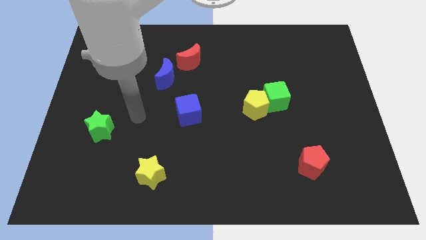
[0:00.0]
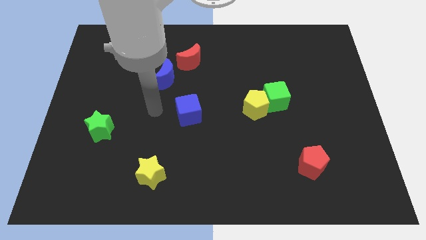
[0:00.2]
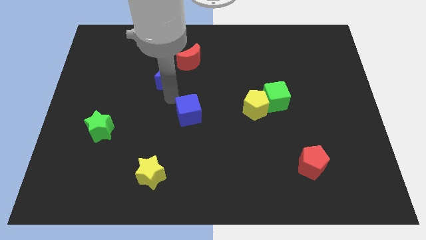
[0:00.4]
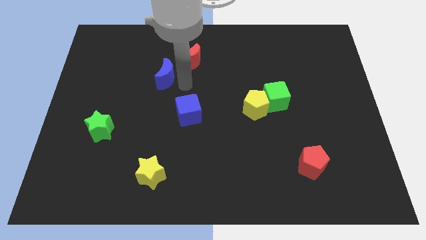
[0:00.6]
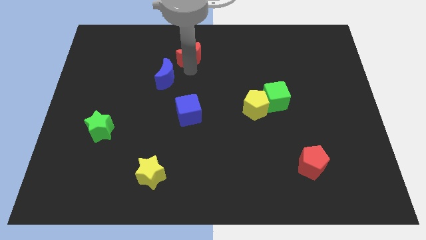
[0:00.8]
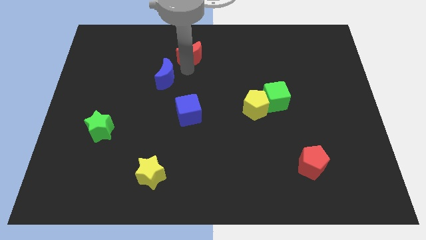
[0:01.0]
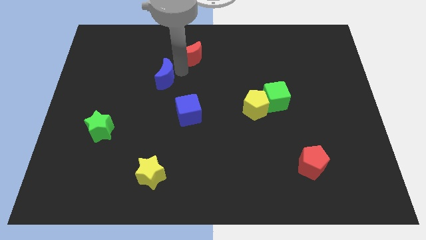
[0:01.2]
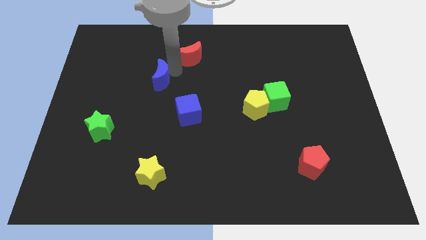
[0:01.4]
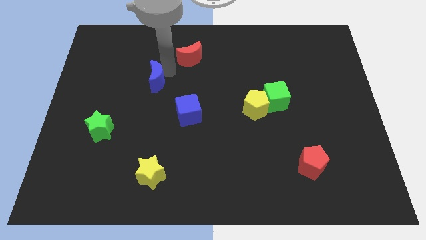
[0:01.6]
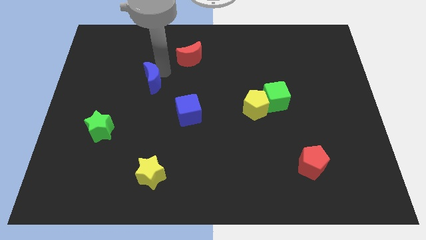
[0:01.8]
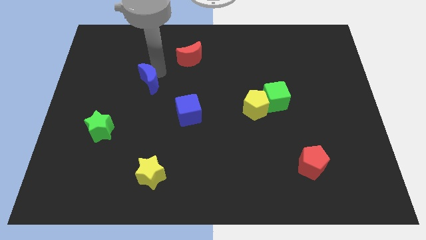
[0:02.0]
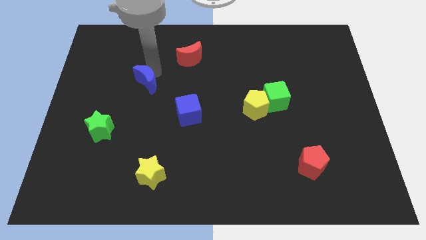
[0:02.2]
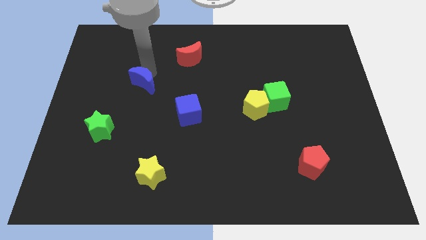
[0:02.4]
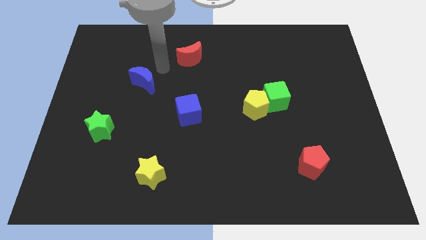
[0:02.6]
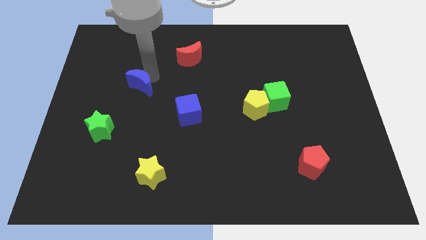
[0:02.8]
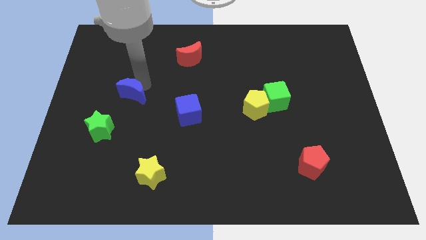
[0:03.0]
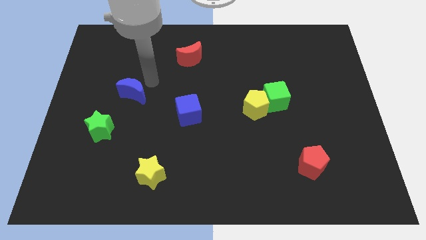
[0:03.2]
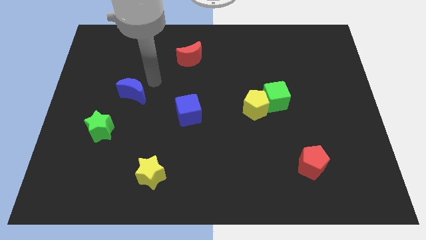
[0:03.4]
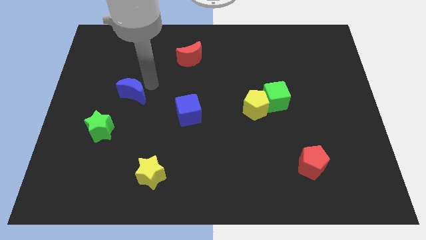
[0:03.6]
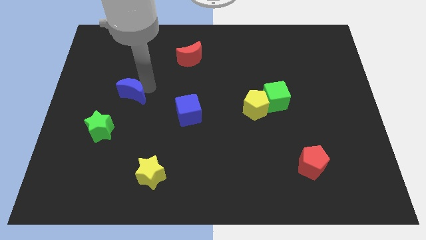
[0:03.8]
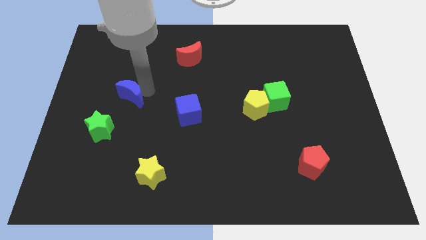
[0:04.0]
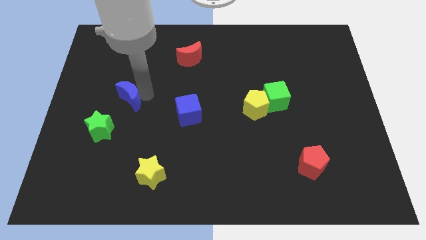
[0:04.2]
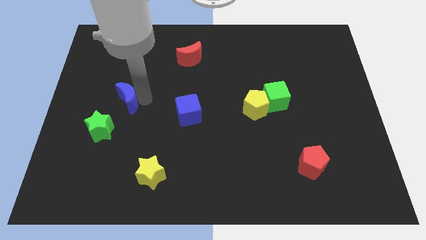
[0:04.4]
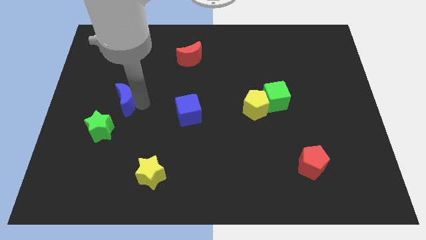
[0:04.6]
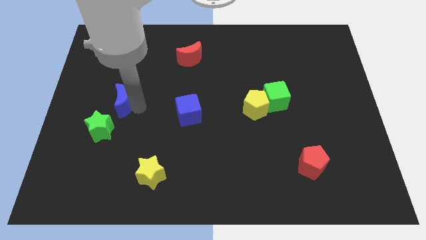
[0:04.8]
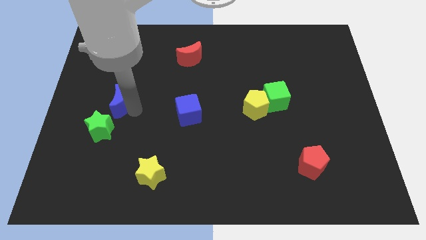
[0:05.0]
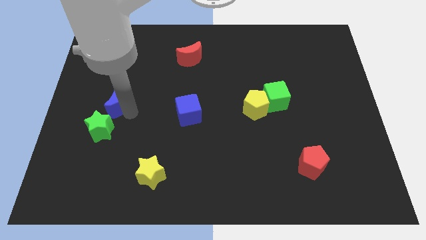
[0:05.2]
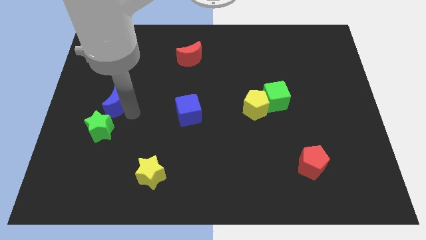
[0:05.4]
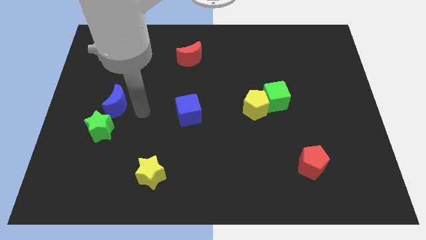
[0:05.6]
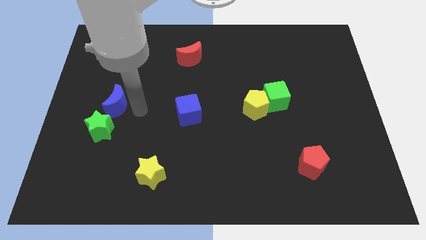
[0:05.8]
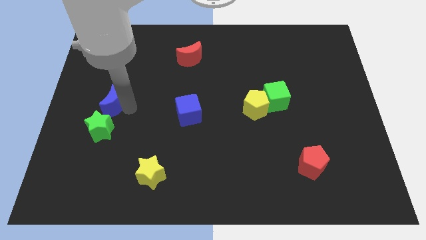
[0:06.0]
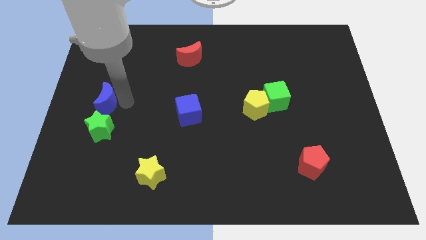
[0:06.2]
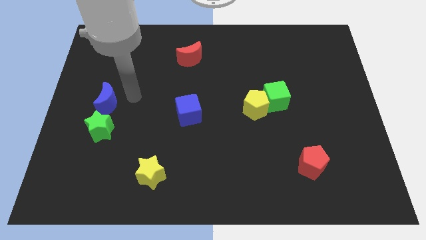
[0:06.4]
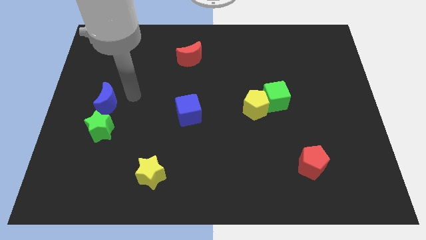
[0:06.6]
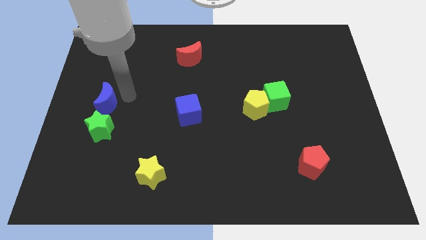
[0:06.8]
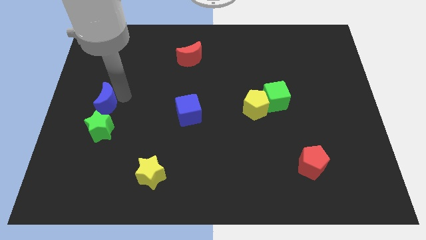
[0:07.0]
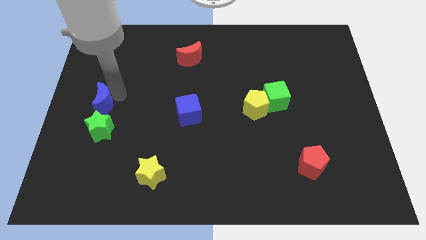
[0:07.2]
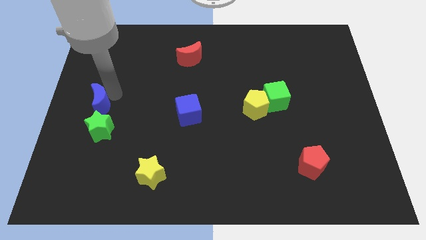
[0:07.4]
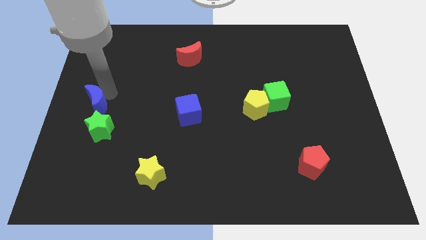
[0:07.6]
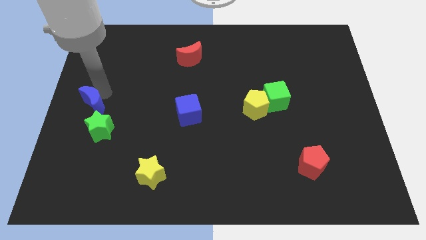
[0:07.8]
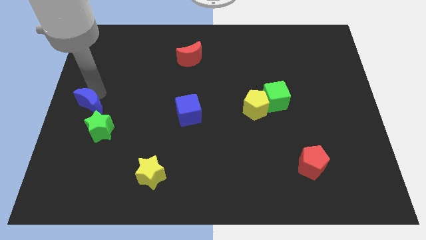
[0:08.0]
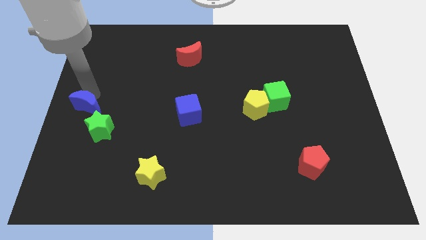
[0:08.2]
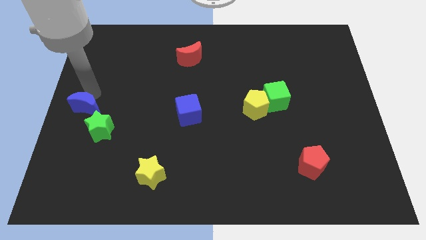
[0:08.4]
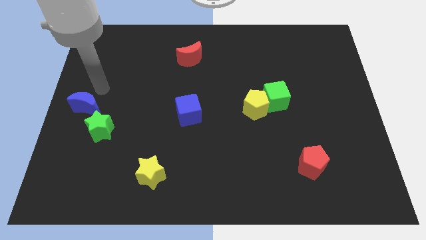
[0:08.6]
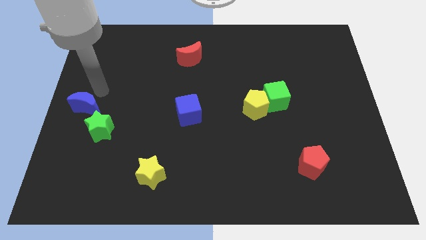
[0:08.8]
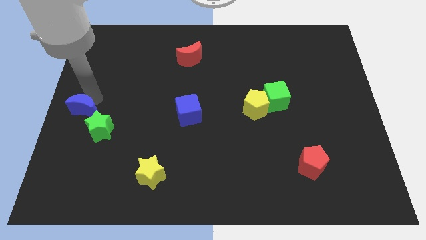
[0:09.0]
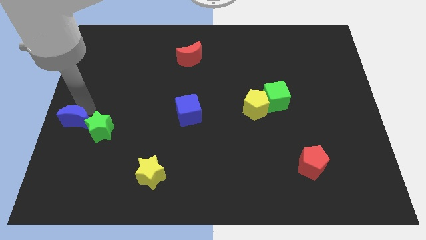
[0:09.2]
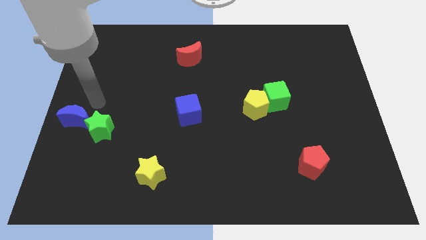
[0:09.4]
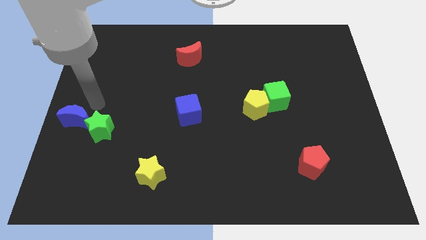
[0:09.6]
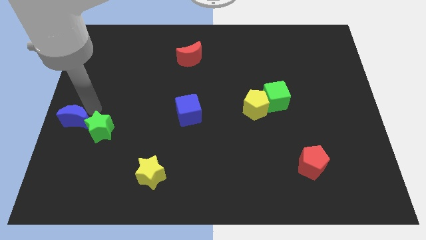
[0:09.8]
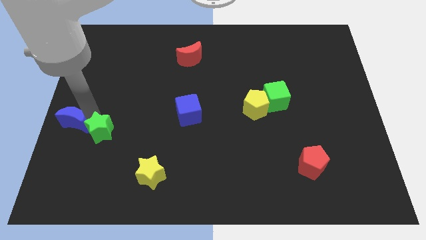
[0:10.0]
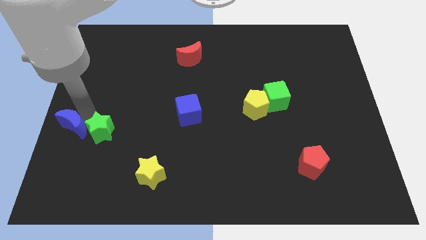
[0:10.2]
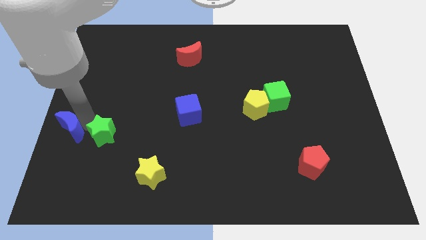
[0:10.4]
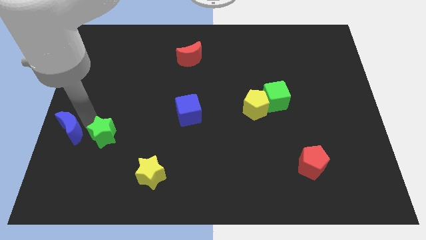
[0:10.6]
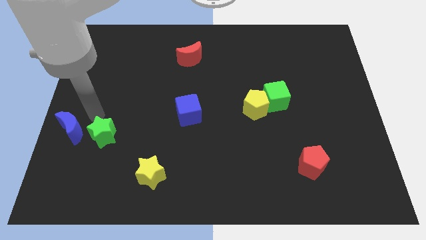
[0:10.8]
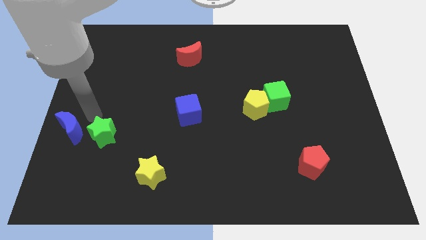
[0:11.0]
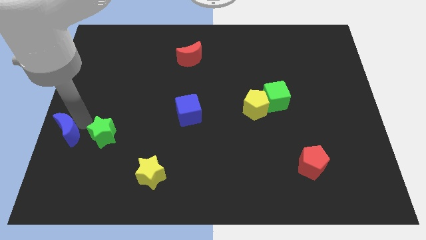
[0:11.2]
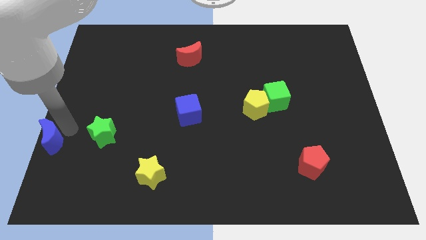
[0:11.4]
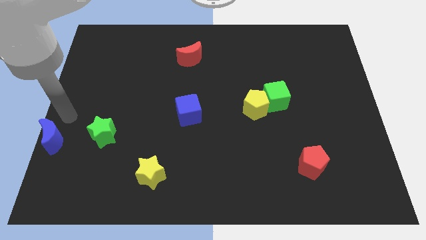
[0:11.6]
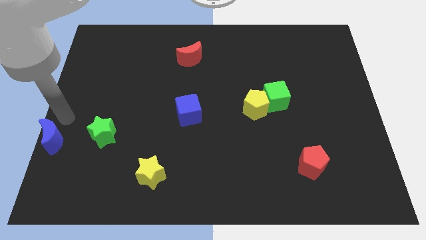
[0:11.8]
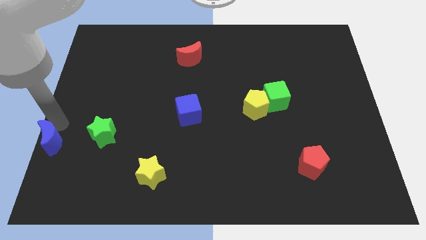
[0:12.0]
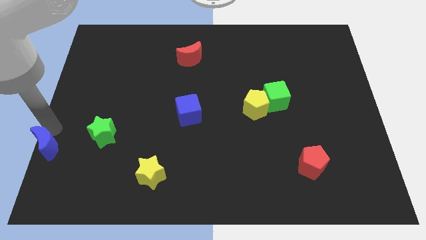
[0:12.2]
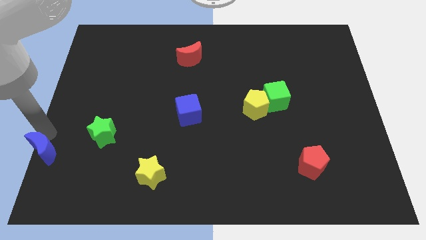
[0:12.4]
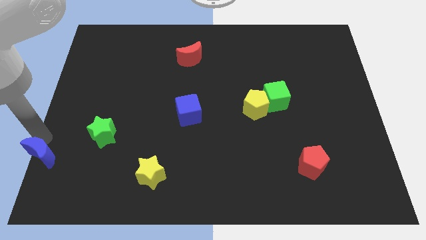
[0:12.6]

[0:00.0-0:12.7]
move the blue moon to the bottom left of the board
